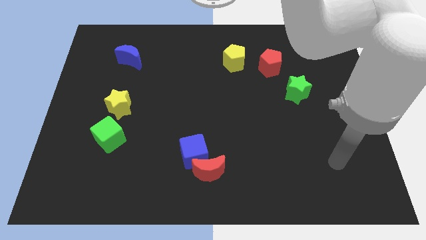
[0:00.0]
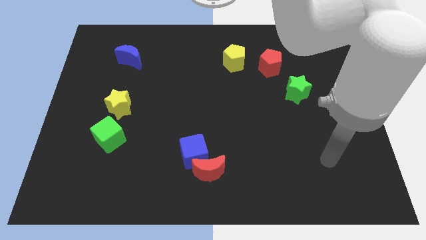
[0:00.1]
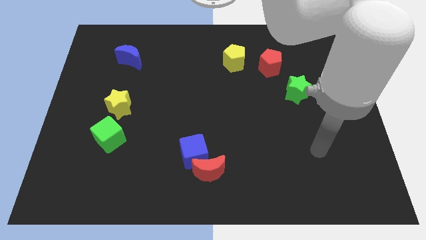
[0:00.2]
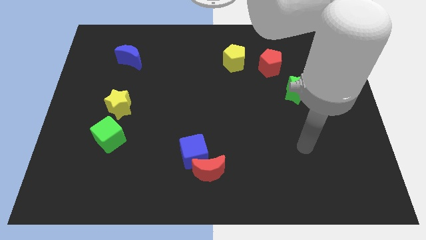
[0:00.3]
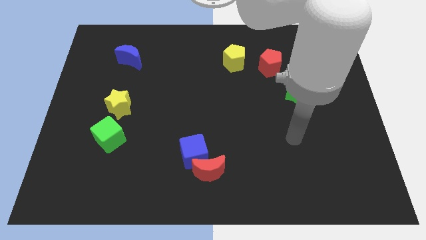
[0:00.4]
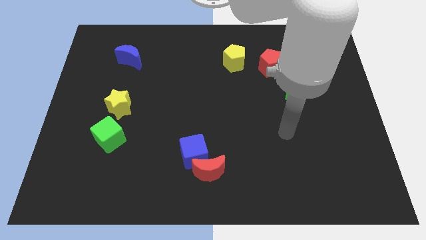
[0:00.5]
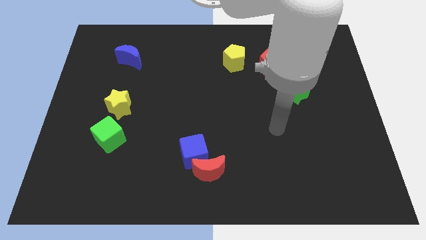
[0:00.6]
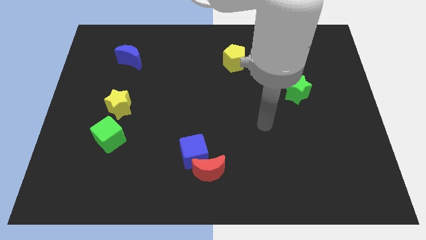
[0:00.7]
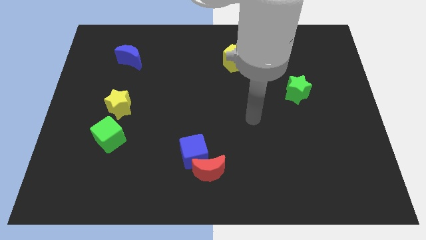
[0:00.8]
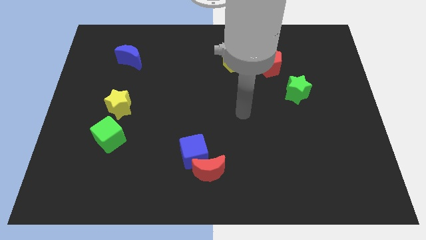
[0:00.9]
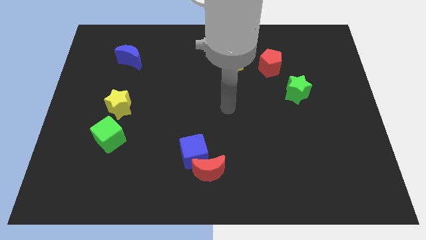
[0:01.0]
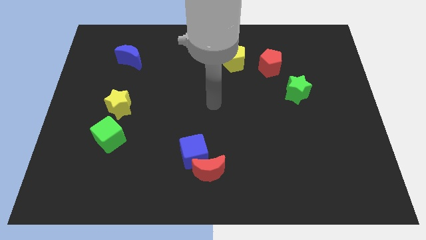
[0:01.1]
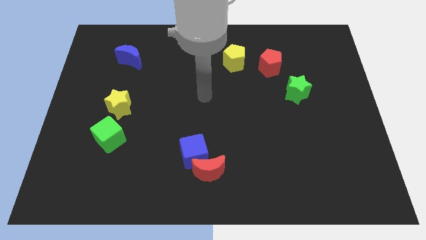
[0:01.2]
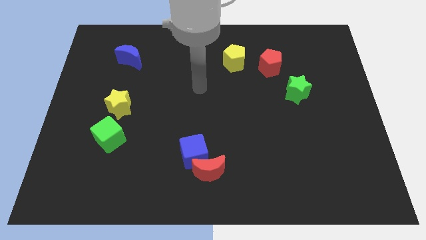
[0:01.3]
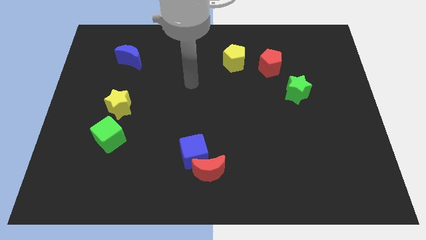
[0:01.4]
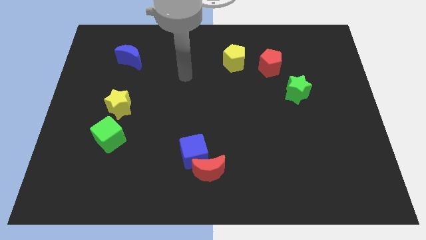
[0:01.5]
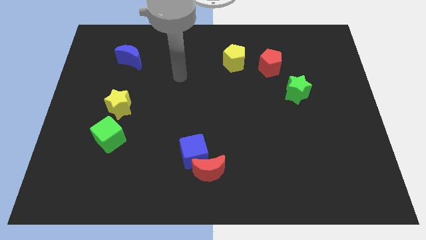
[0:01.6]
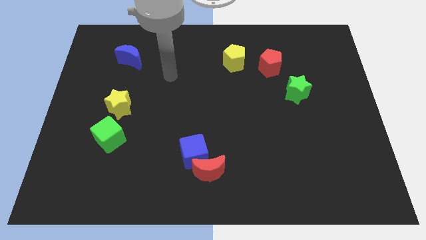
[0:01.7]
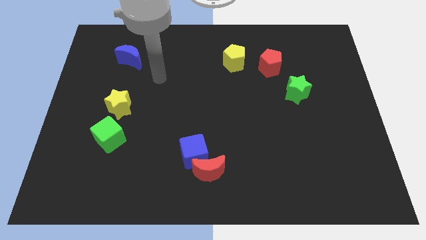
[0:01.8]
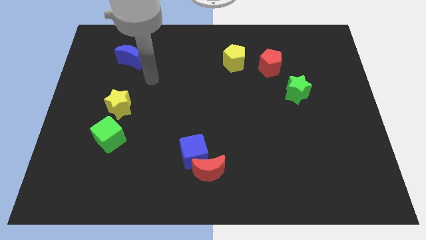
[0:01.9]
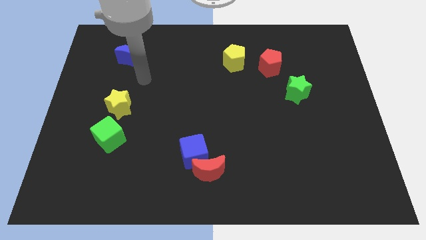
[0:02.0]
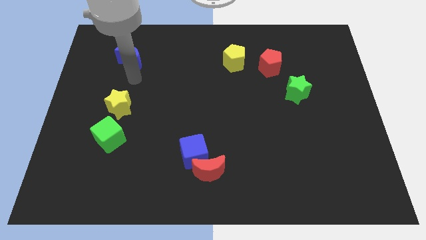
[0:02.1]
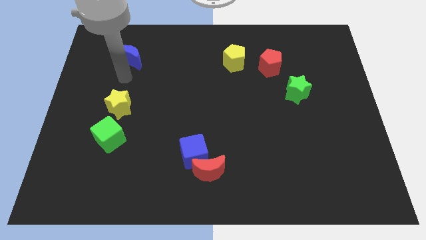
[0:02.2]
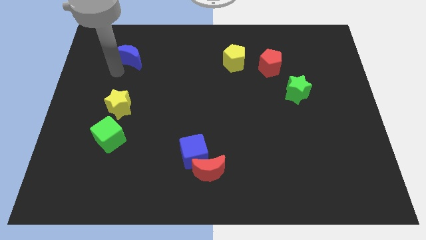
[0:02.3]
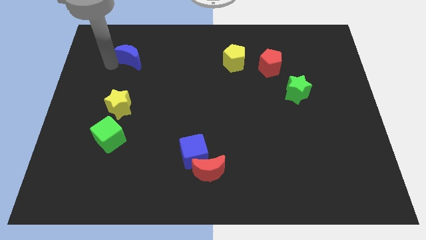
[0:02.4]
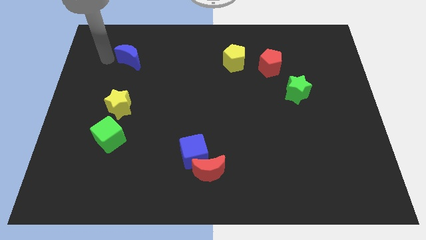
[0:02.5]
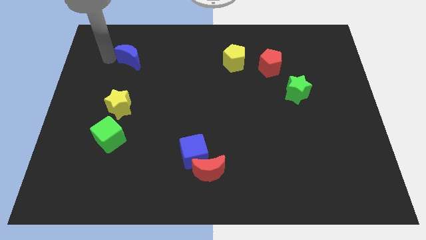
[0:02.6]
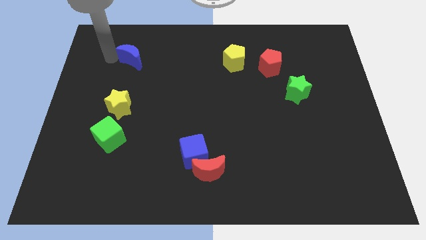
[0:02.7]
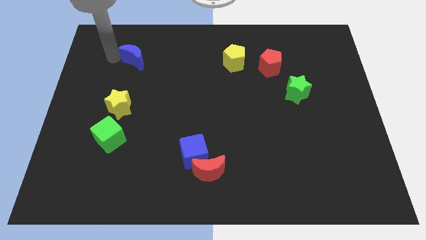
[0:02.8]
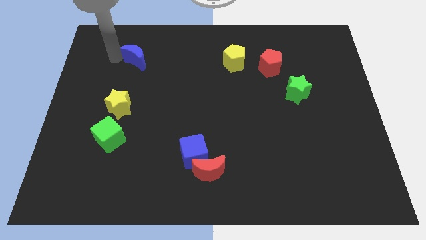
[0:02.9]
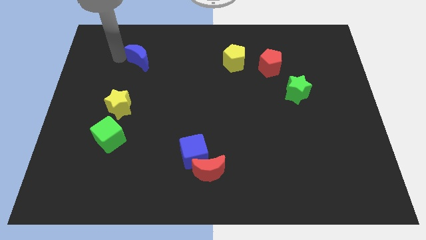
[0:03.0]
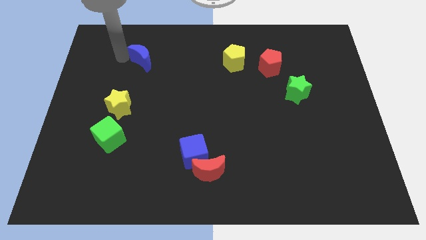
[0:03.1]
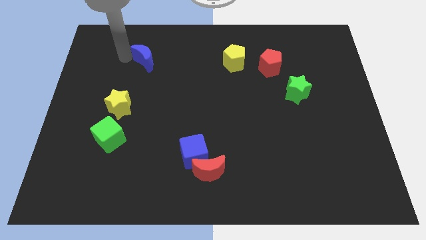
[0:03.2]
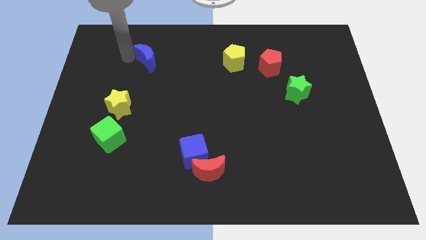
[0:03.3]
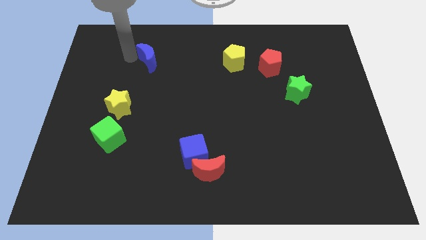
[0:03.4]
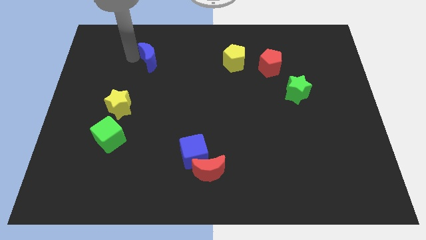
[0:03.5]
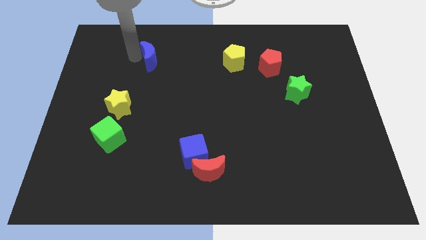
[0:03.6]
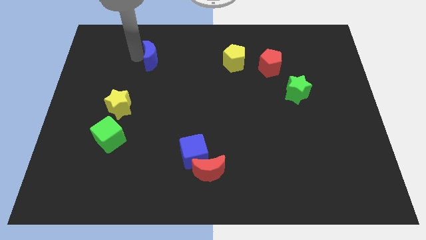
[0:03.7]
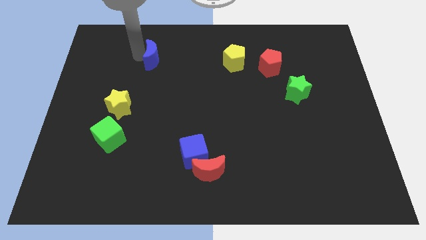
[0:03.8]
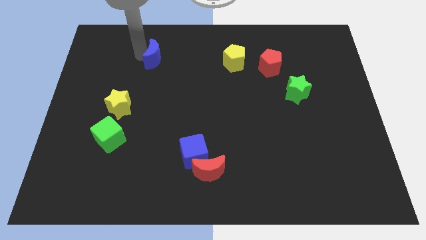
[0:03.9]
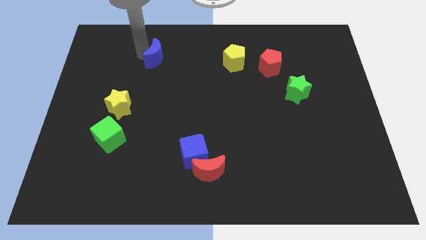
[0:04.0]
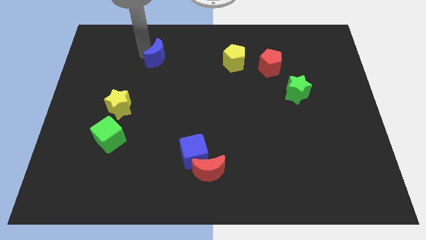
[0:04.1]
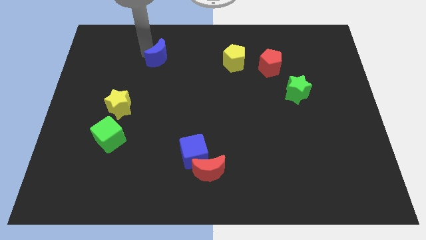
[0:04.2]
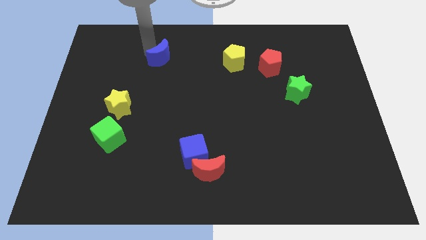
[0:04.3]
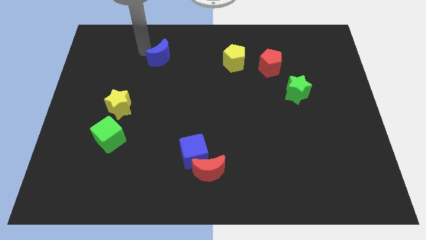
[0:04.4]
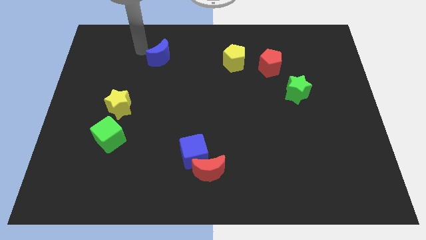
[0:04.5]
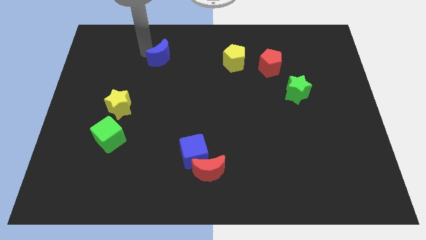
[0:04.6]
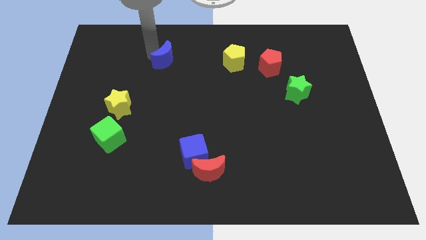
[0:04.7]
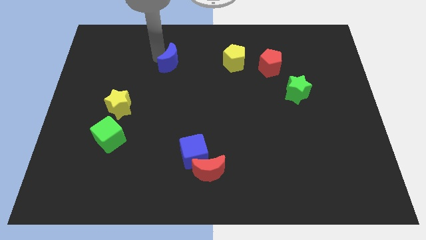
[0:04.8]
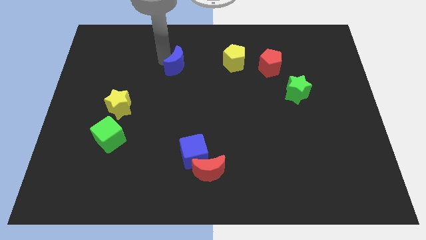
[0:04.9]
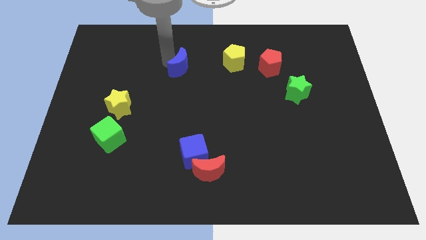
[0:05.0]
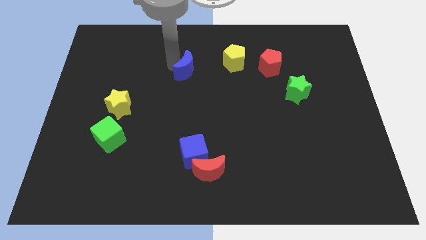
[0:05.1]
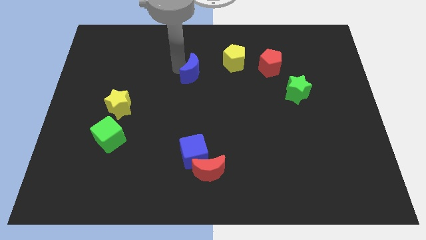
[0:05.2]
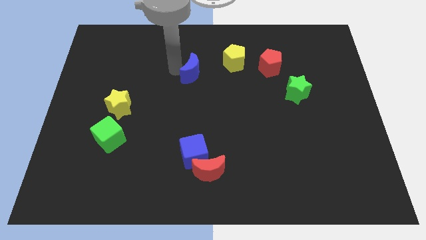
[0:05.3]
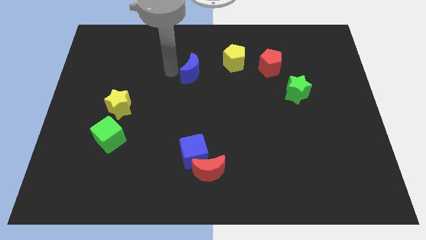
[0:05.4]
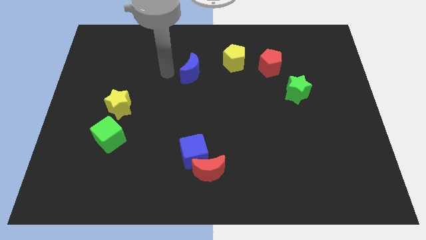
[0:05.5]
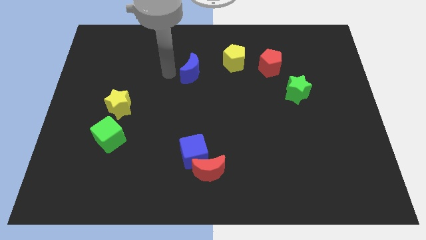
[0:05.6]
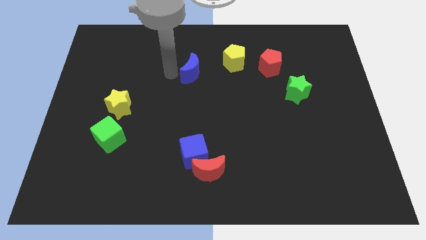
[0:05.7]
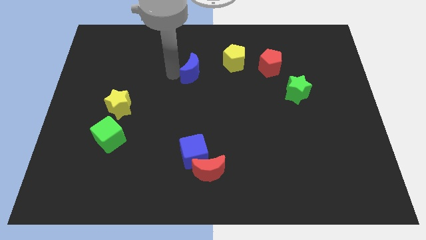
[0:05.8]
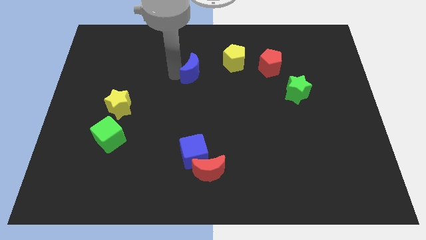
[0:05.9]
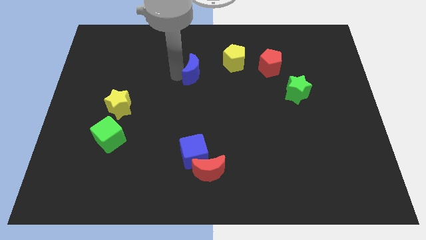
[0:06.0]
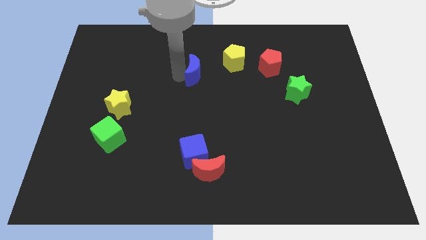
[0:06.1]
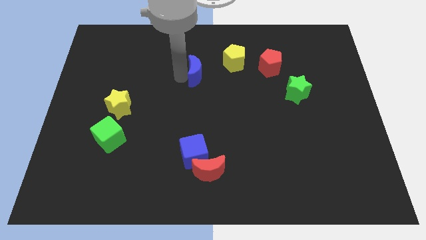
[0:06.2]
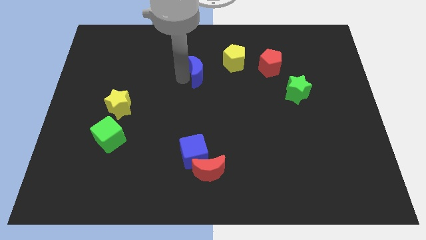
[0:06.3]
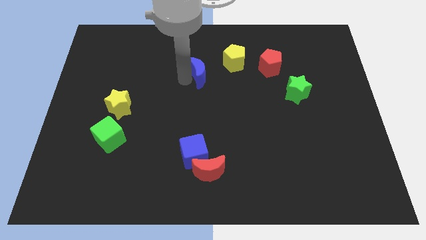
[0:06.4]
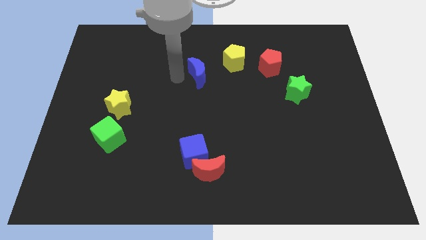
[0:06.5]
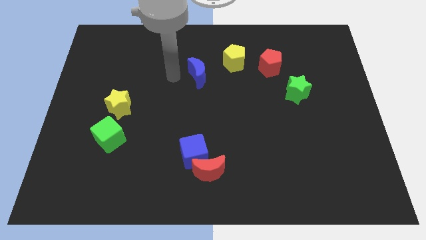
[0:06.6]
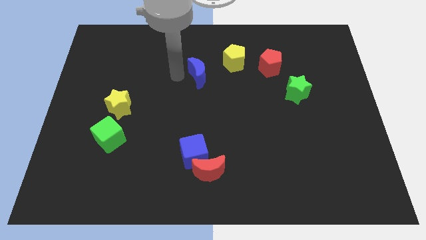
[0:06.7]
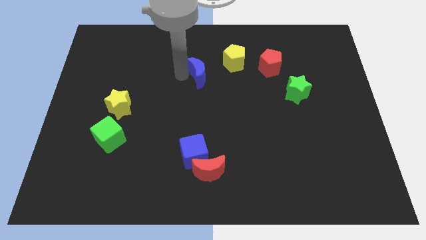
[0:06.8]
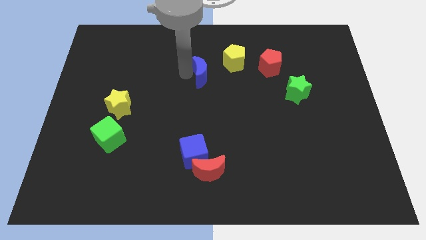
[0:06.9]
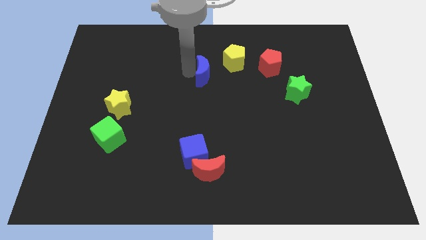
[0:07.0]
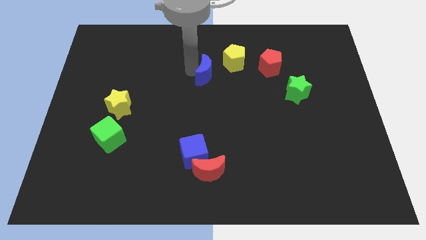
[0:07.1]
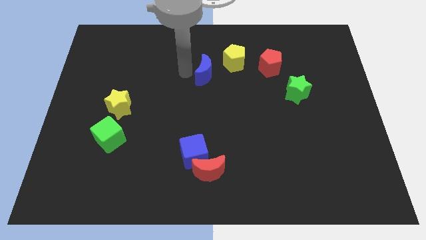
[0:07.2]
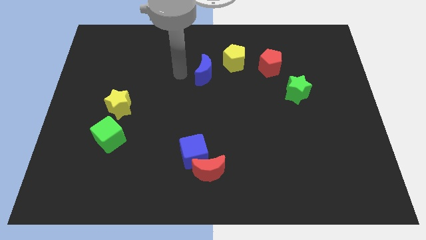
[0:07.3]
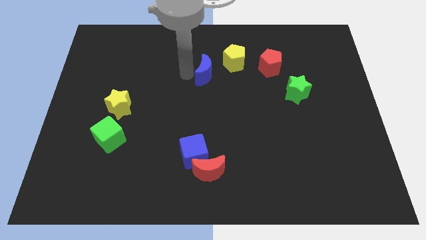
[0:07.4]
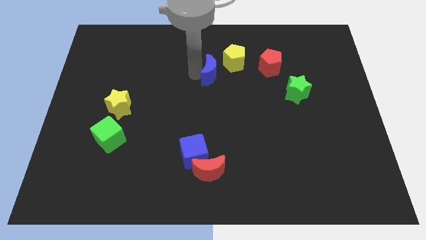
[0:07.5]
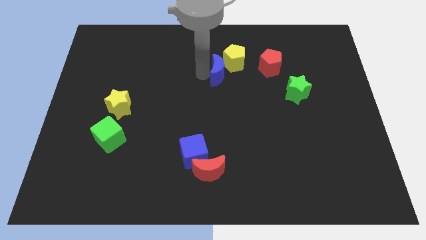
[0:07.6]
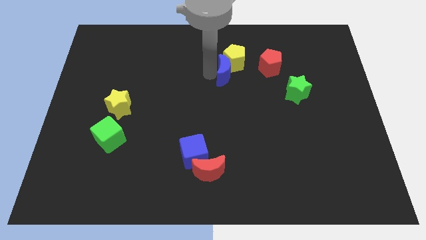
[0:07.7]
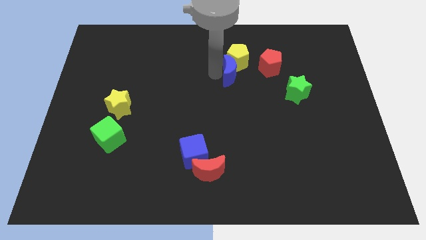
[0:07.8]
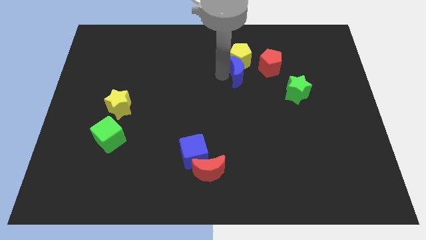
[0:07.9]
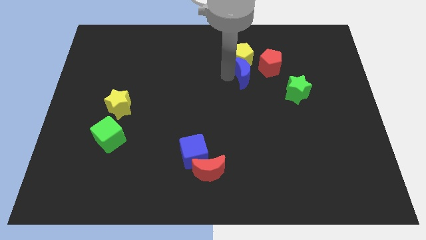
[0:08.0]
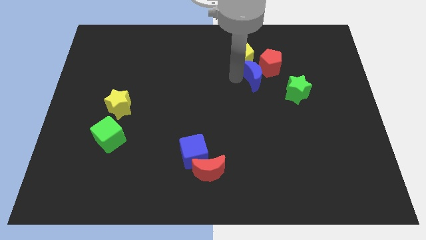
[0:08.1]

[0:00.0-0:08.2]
push the blue moon to the red pentagon
